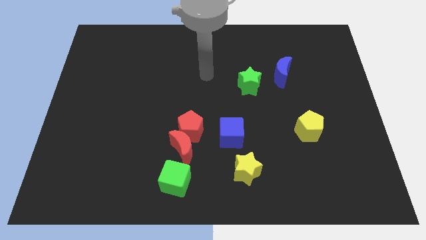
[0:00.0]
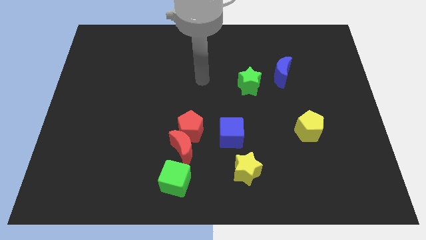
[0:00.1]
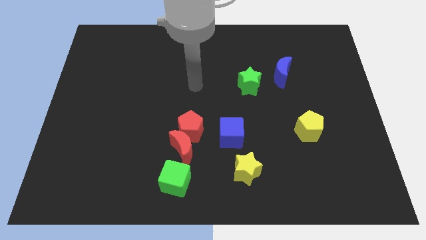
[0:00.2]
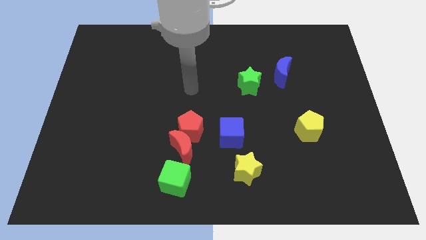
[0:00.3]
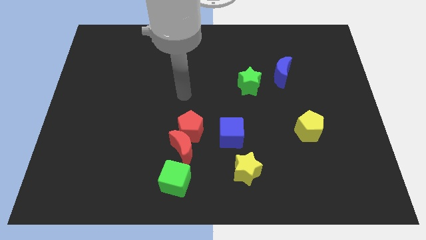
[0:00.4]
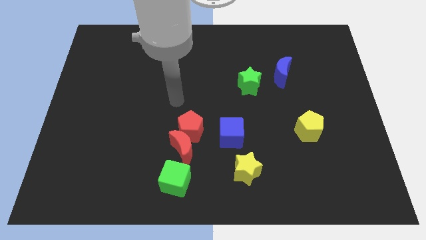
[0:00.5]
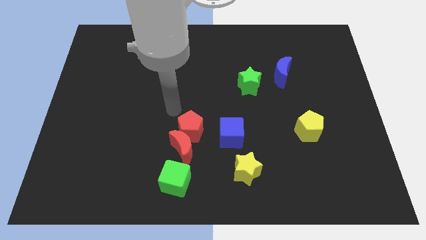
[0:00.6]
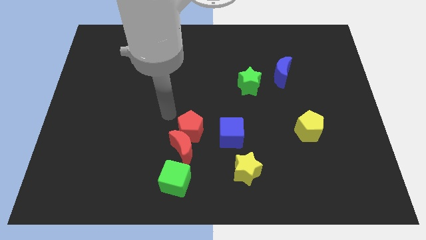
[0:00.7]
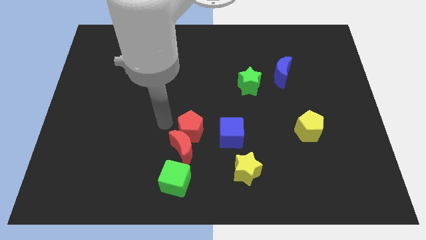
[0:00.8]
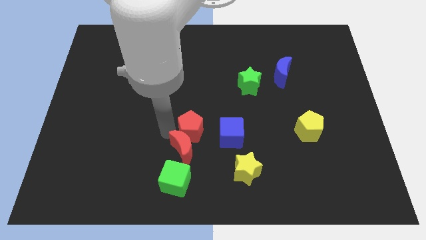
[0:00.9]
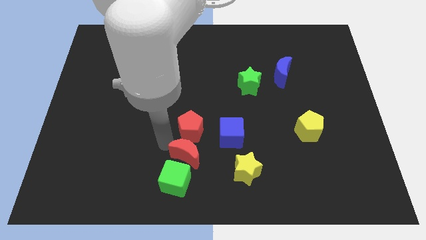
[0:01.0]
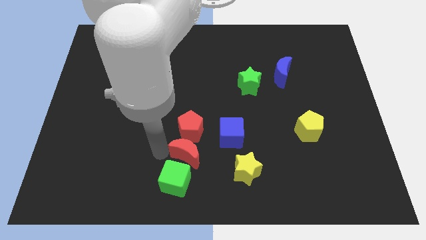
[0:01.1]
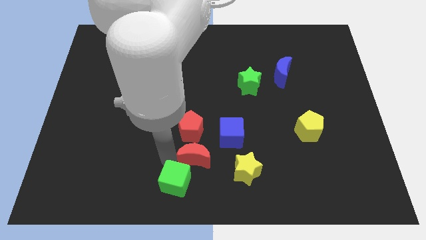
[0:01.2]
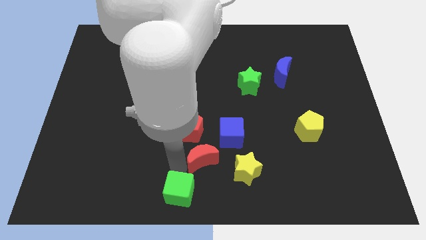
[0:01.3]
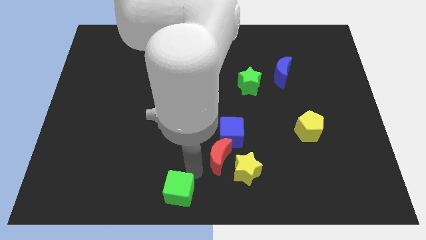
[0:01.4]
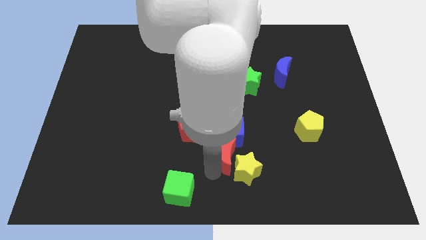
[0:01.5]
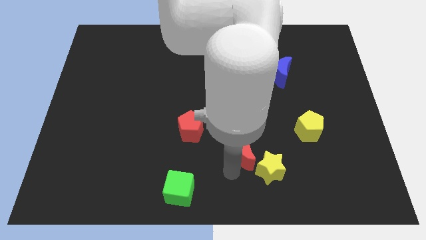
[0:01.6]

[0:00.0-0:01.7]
pull the red moon apart from the red pentagon and green cube

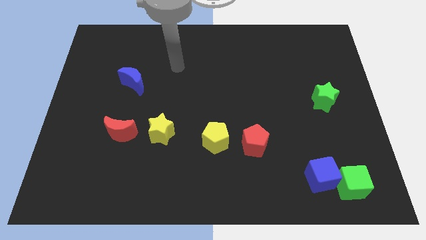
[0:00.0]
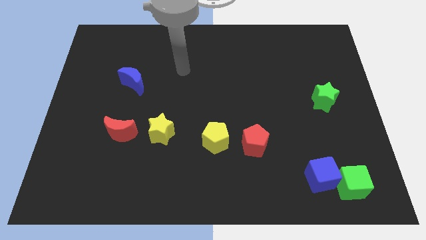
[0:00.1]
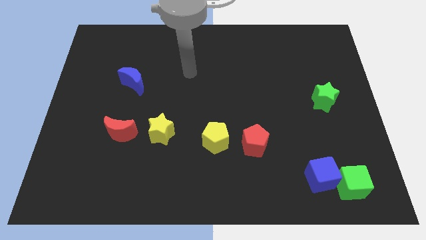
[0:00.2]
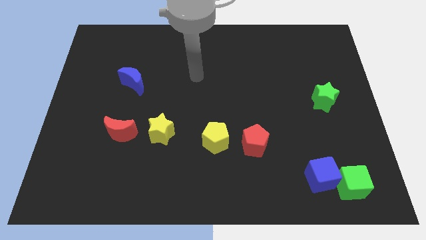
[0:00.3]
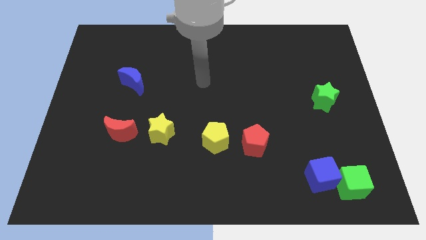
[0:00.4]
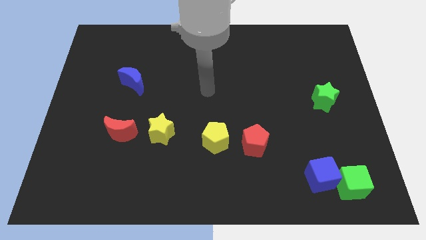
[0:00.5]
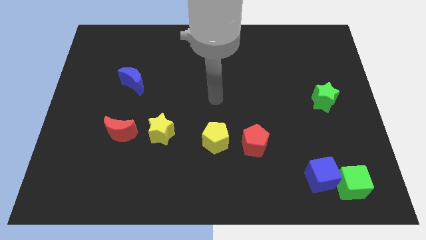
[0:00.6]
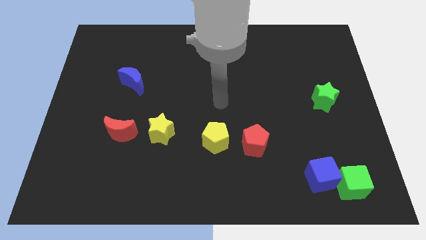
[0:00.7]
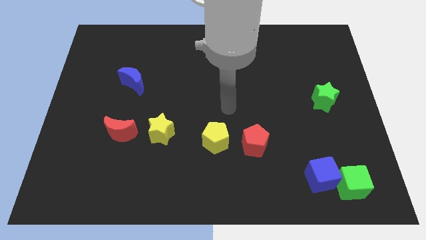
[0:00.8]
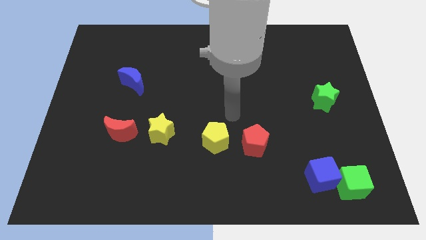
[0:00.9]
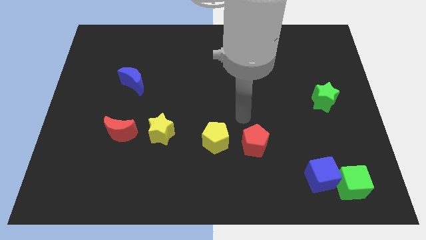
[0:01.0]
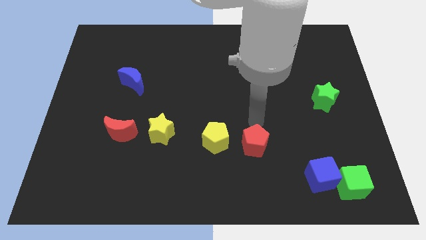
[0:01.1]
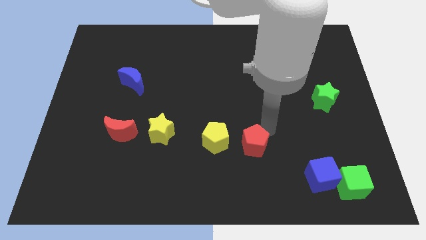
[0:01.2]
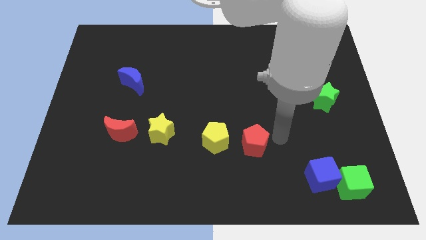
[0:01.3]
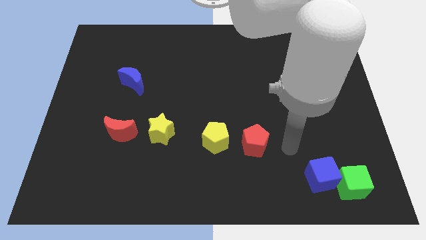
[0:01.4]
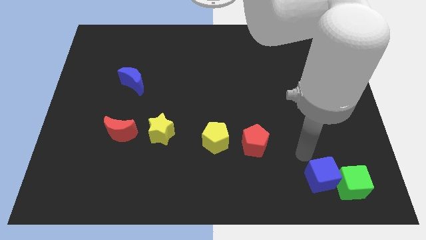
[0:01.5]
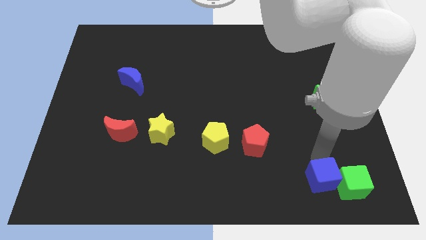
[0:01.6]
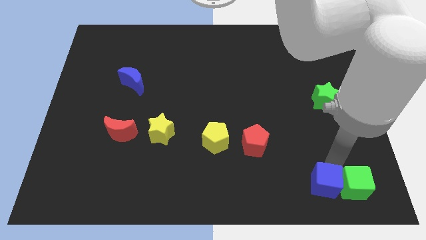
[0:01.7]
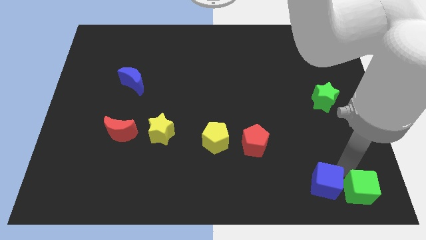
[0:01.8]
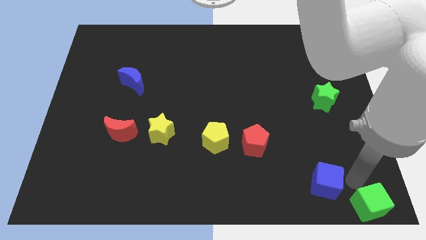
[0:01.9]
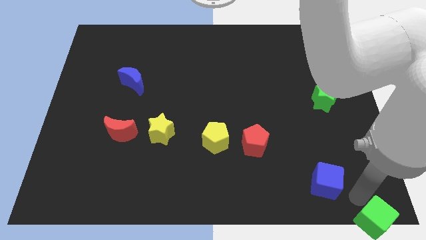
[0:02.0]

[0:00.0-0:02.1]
pull the blue cube apart from the green cube

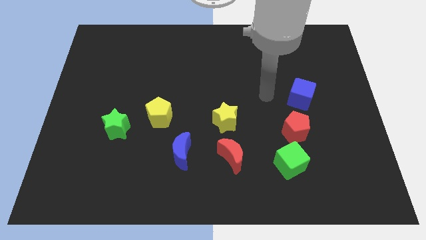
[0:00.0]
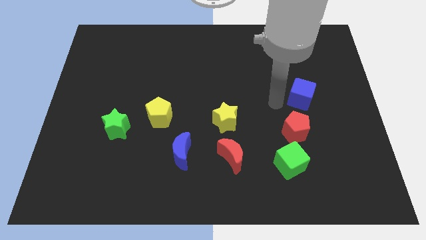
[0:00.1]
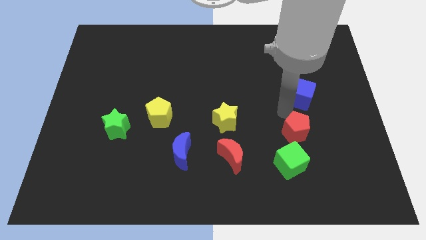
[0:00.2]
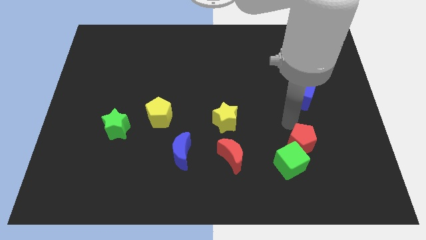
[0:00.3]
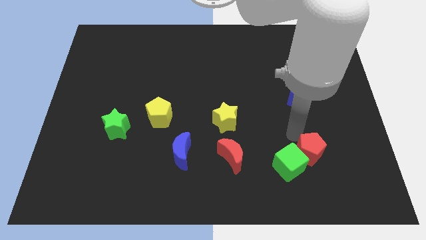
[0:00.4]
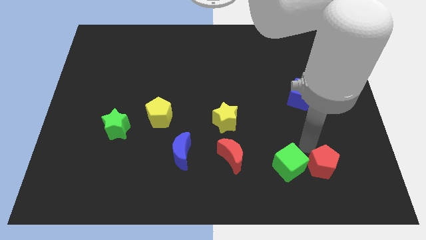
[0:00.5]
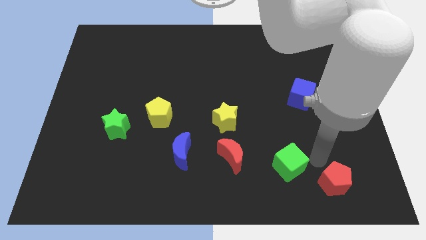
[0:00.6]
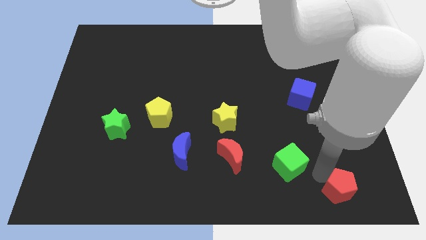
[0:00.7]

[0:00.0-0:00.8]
pull the green cube apart from the red pentagon

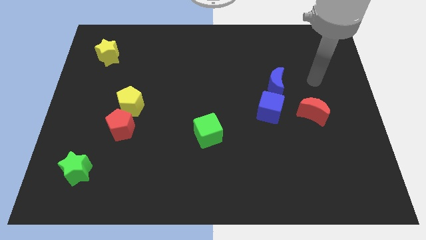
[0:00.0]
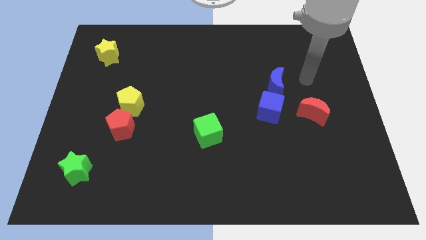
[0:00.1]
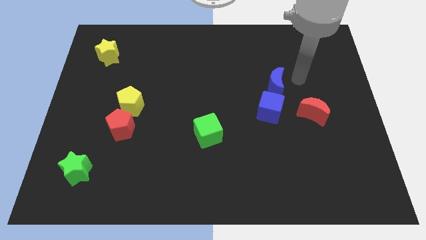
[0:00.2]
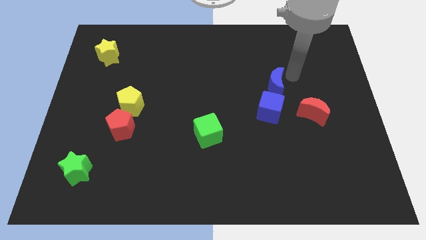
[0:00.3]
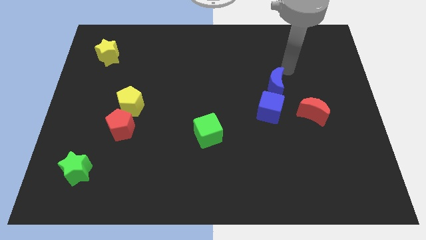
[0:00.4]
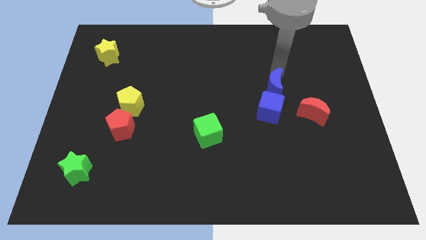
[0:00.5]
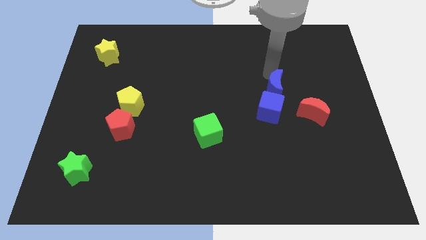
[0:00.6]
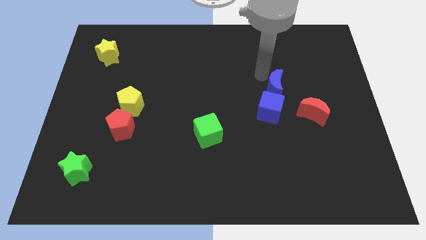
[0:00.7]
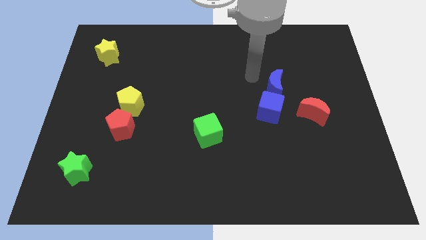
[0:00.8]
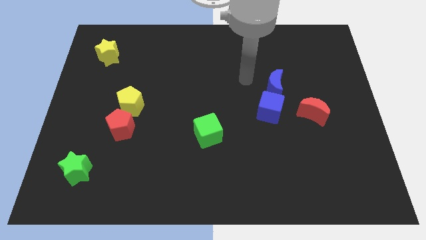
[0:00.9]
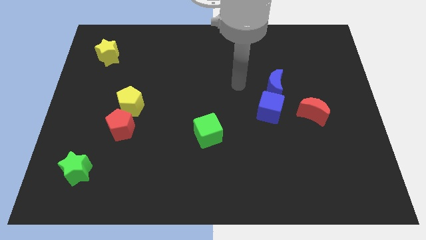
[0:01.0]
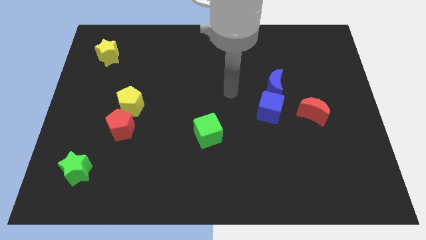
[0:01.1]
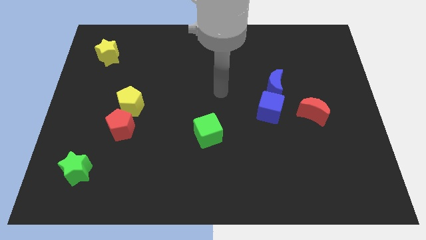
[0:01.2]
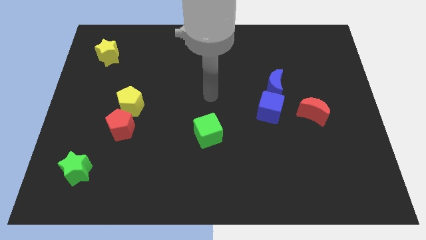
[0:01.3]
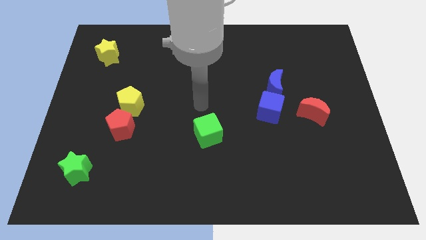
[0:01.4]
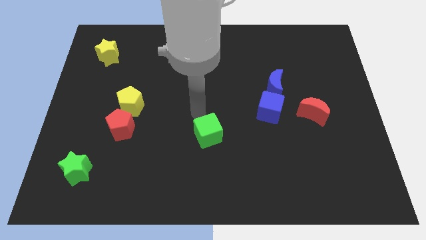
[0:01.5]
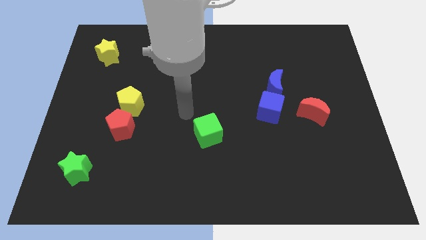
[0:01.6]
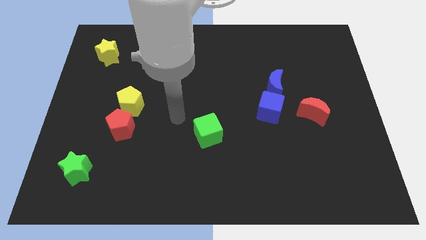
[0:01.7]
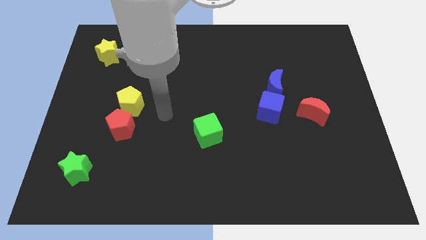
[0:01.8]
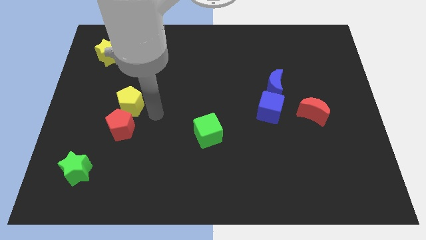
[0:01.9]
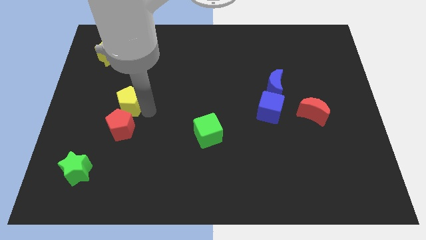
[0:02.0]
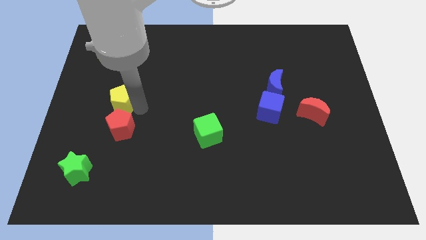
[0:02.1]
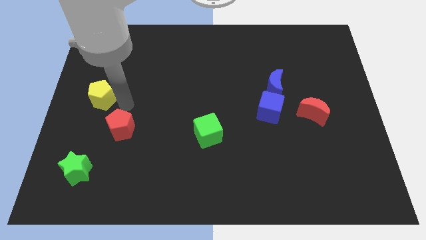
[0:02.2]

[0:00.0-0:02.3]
pull the red pentagon apart from the yellow pentagon

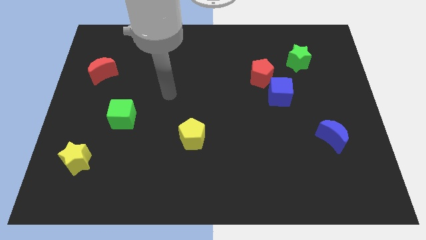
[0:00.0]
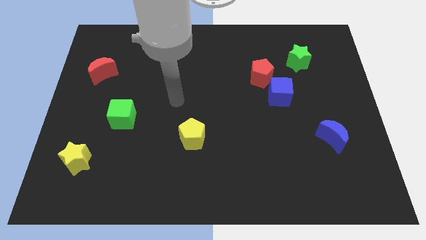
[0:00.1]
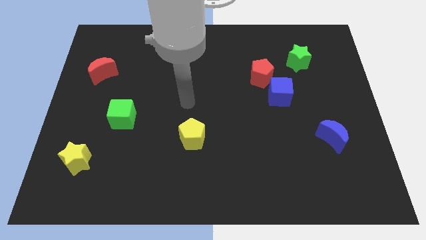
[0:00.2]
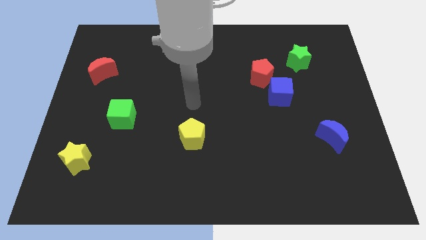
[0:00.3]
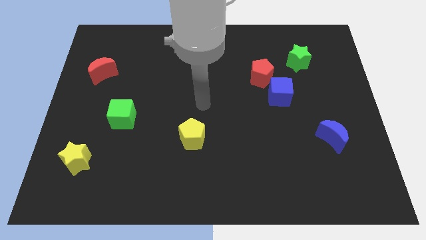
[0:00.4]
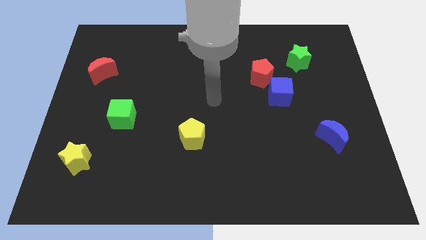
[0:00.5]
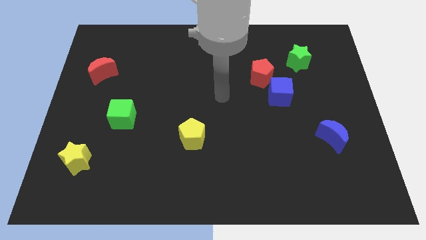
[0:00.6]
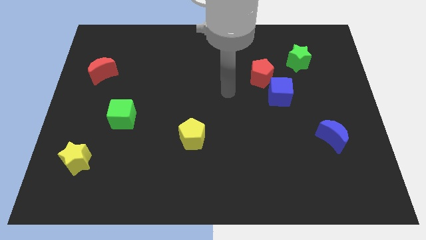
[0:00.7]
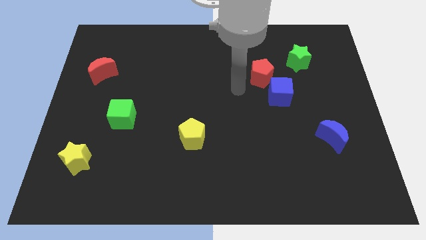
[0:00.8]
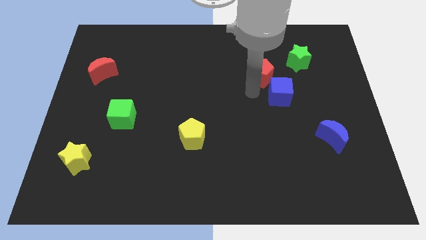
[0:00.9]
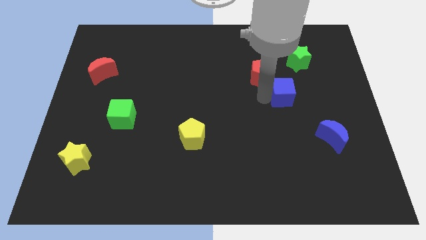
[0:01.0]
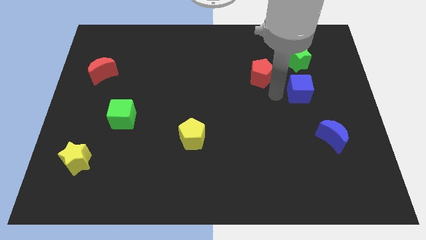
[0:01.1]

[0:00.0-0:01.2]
separate the red pentagon from the blue cube

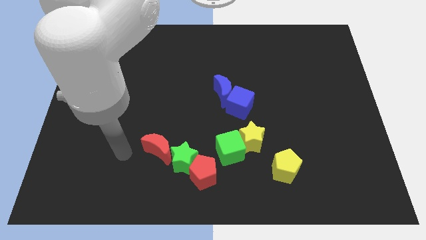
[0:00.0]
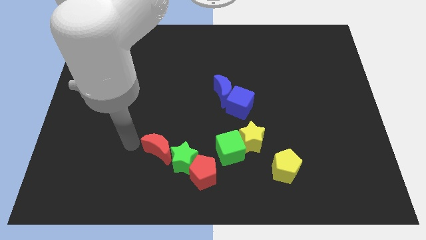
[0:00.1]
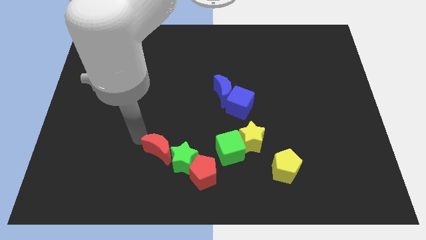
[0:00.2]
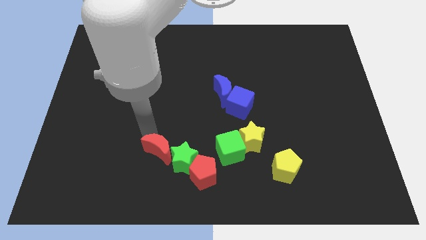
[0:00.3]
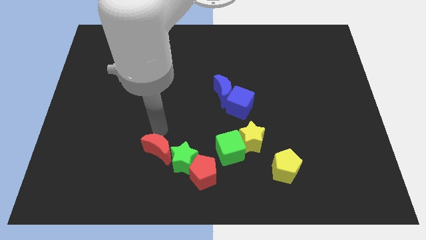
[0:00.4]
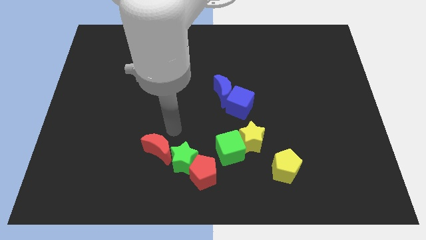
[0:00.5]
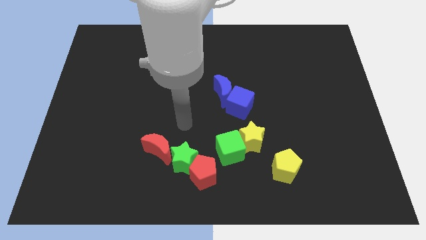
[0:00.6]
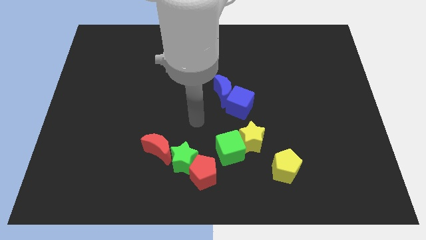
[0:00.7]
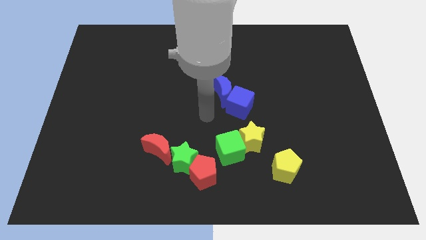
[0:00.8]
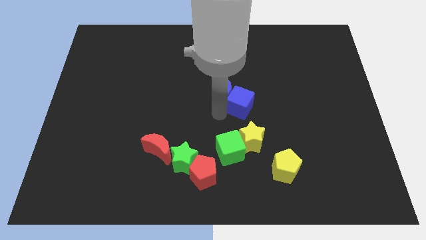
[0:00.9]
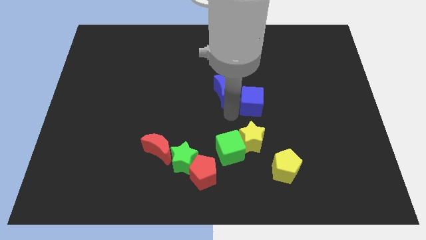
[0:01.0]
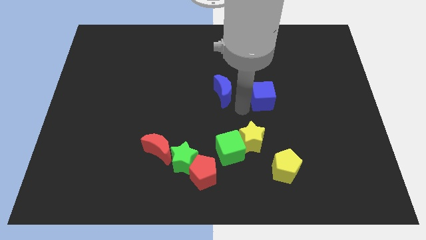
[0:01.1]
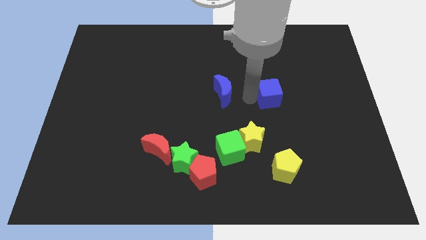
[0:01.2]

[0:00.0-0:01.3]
move the blue moon away from the blue cube

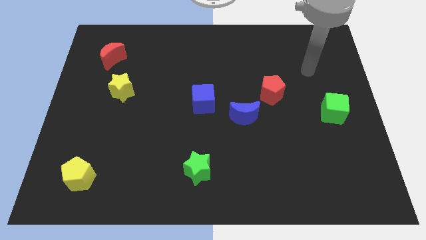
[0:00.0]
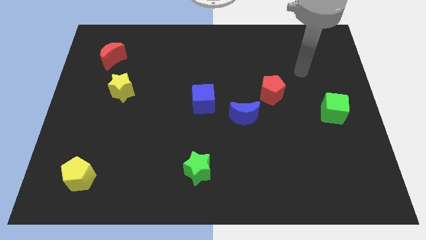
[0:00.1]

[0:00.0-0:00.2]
move the red pentagon away from the blue moon
